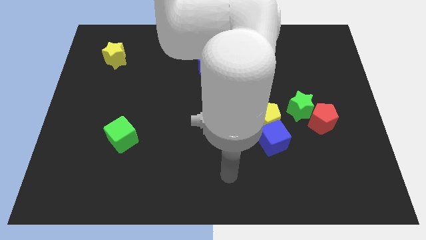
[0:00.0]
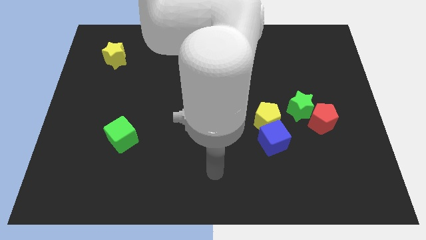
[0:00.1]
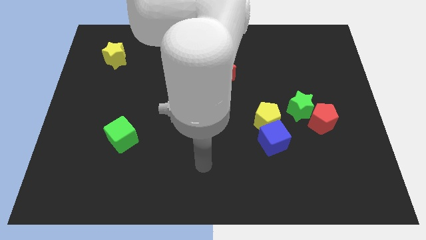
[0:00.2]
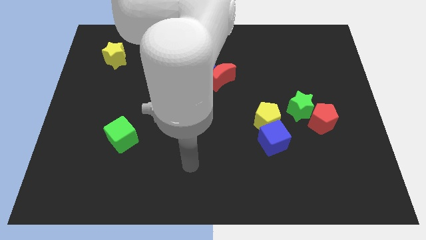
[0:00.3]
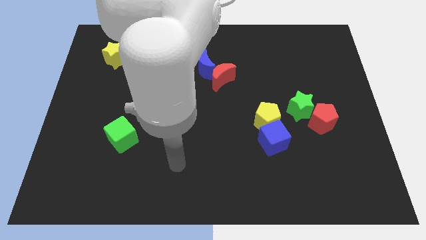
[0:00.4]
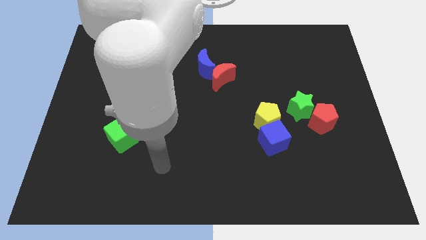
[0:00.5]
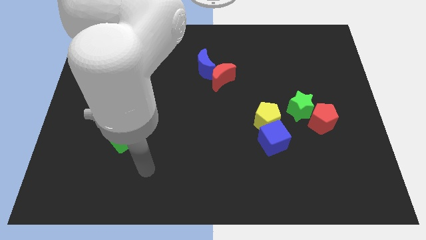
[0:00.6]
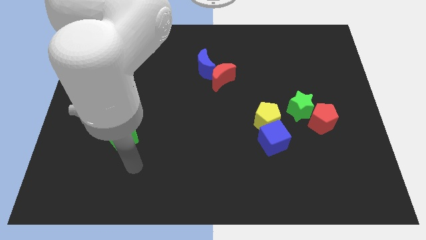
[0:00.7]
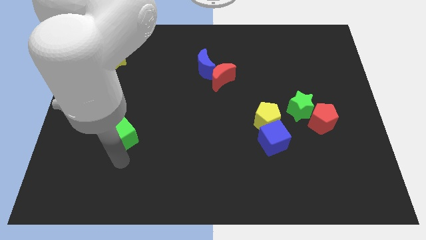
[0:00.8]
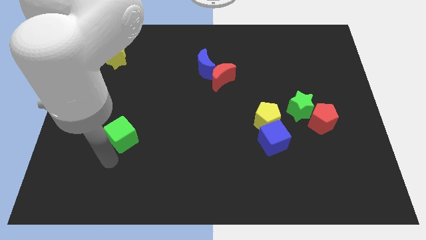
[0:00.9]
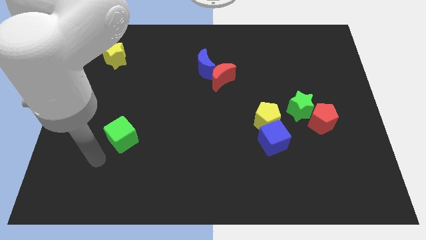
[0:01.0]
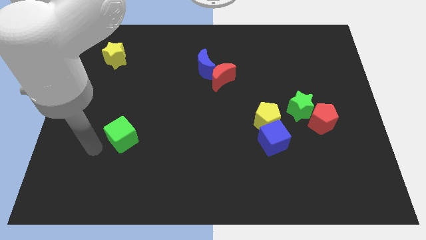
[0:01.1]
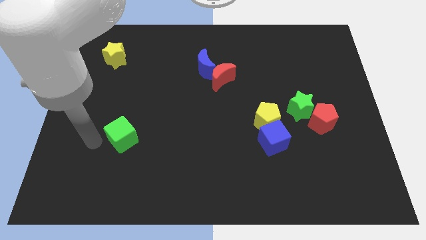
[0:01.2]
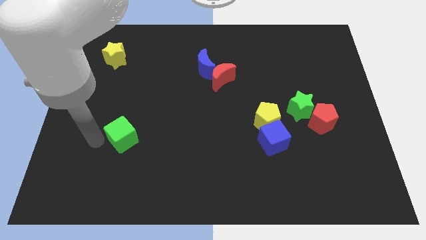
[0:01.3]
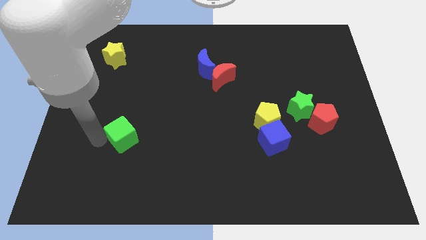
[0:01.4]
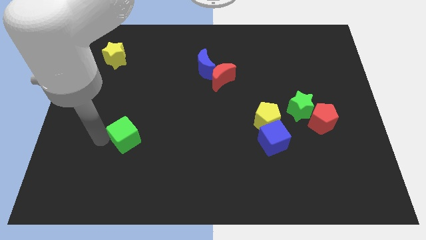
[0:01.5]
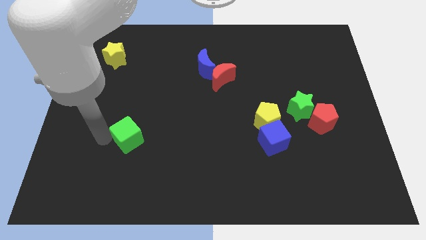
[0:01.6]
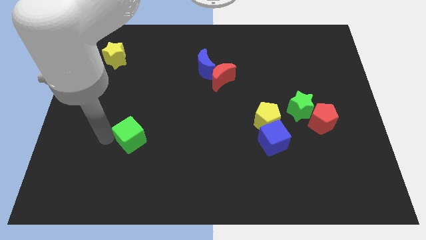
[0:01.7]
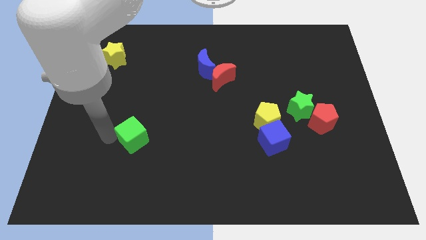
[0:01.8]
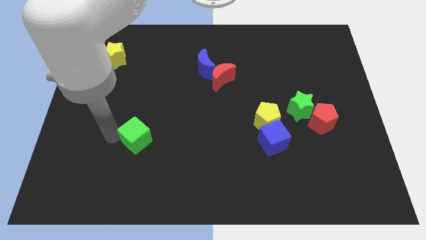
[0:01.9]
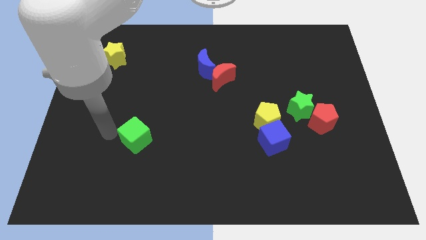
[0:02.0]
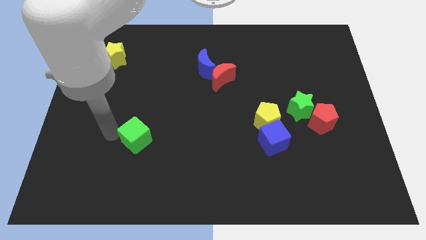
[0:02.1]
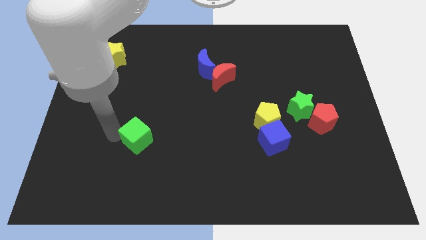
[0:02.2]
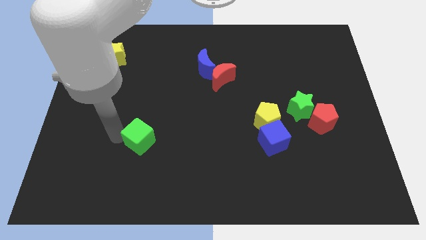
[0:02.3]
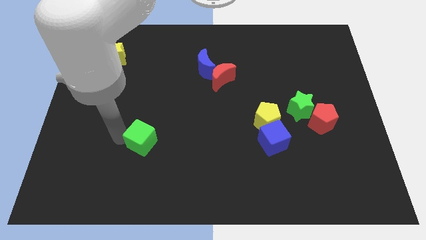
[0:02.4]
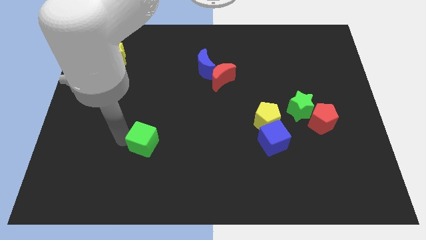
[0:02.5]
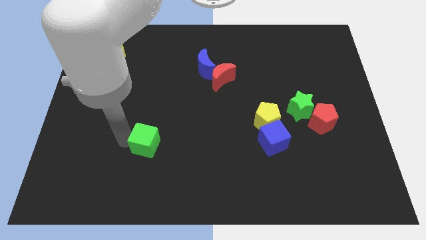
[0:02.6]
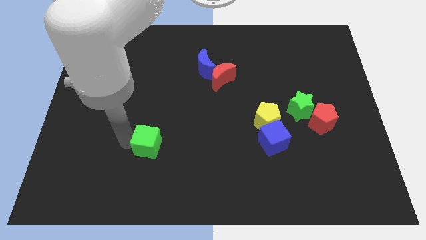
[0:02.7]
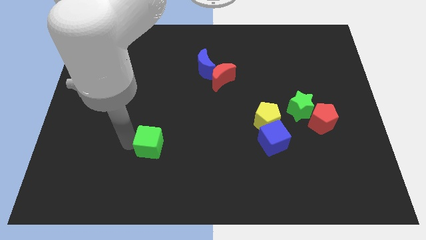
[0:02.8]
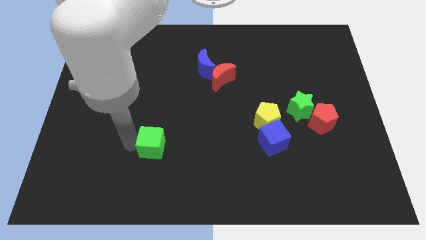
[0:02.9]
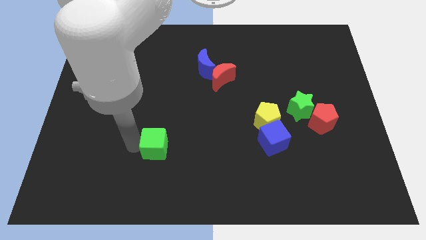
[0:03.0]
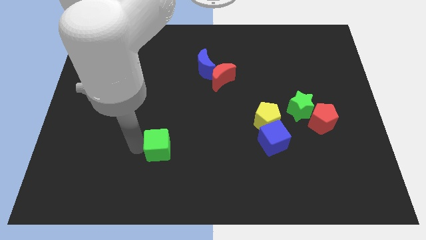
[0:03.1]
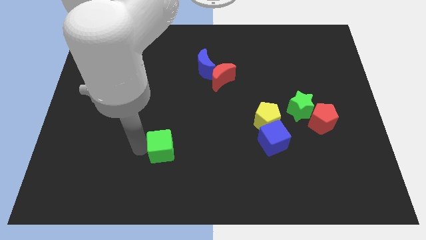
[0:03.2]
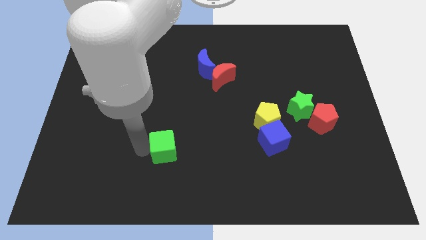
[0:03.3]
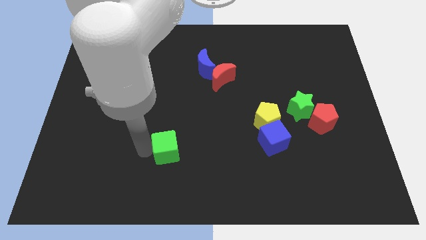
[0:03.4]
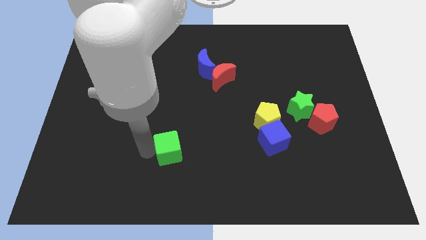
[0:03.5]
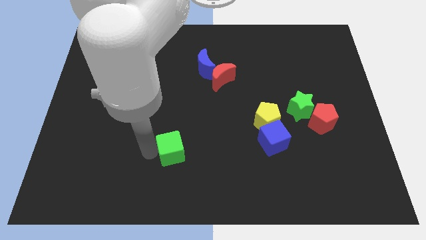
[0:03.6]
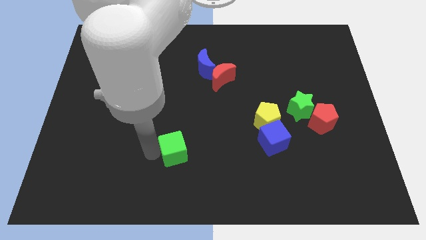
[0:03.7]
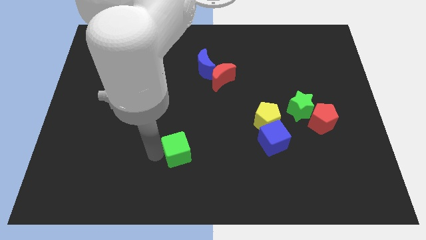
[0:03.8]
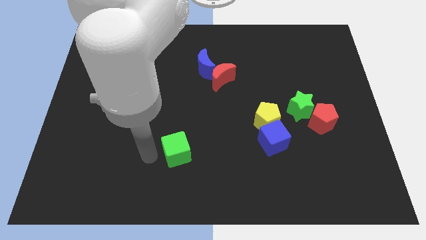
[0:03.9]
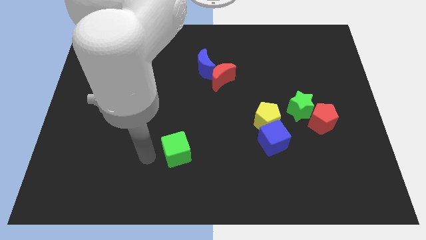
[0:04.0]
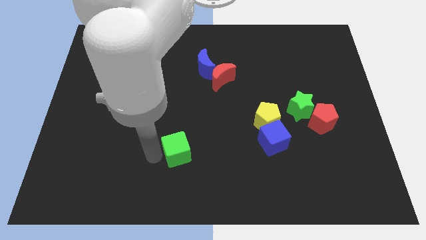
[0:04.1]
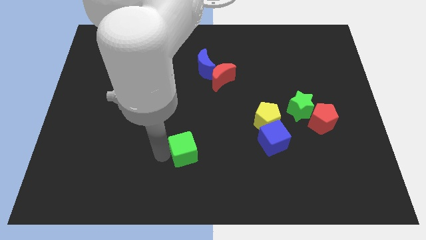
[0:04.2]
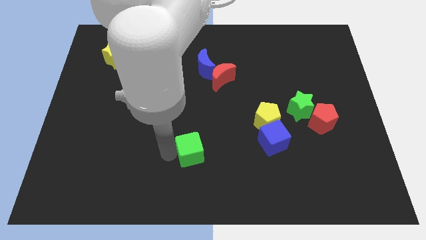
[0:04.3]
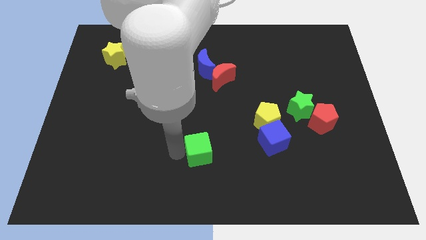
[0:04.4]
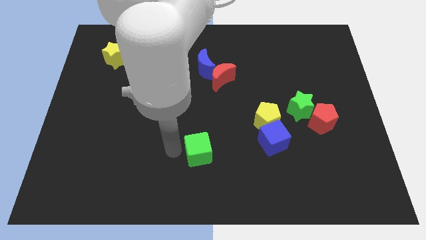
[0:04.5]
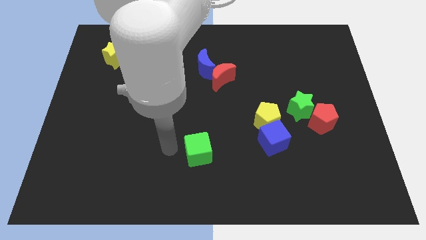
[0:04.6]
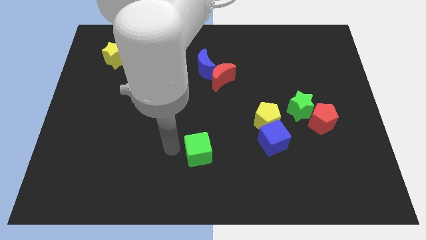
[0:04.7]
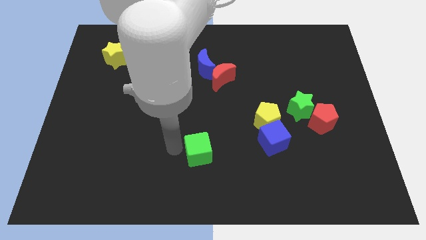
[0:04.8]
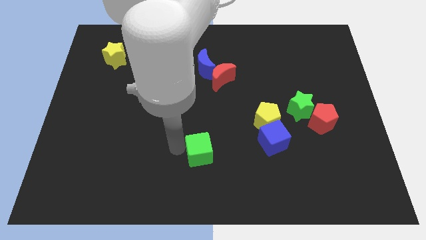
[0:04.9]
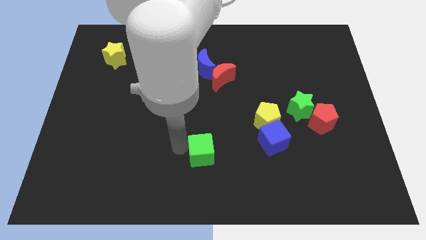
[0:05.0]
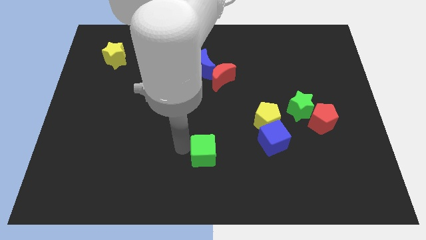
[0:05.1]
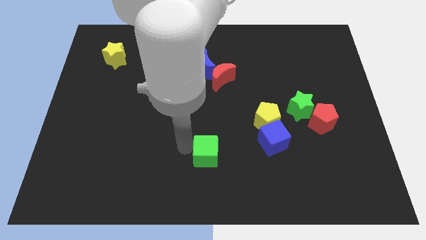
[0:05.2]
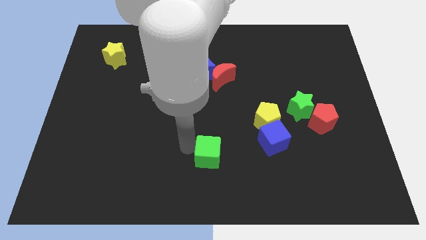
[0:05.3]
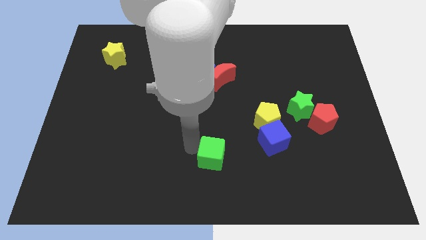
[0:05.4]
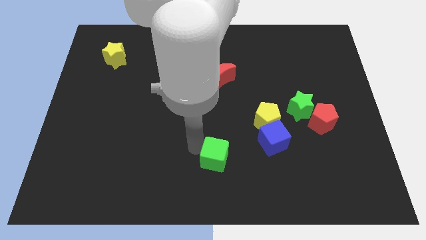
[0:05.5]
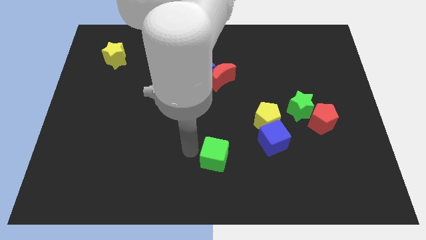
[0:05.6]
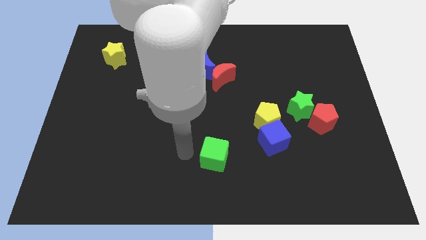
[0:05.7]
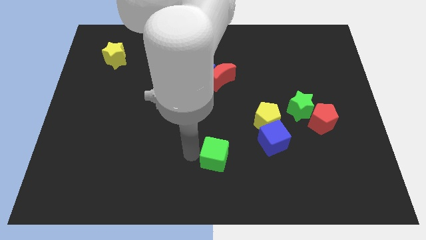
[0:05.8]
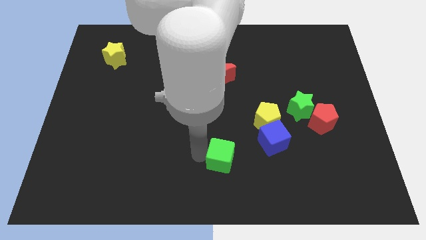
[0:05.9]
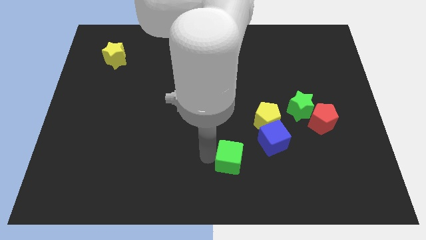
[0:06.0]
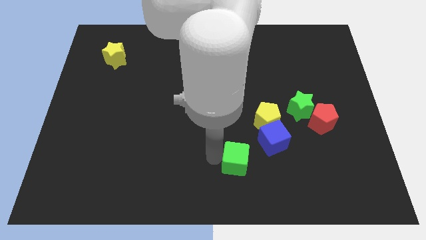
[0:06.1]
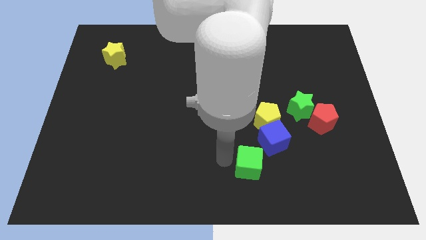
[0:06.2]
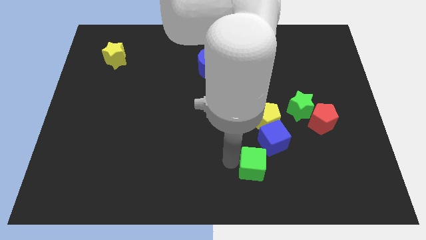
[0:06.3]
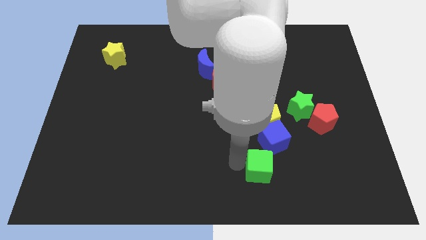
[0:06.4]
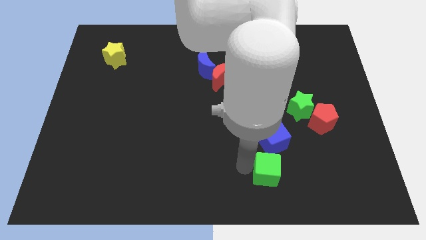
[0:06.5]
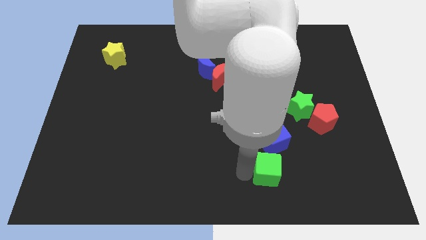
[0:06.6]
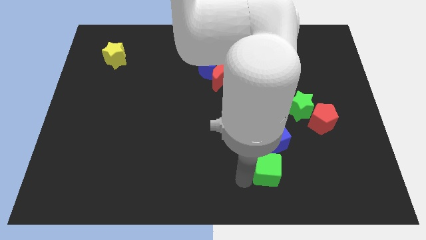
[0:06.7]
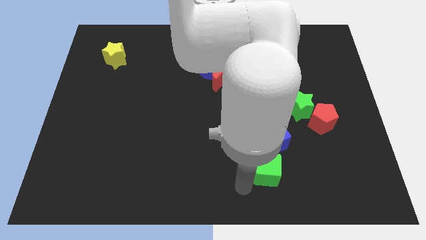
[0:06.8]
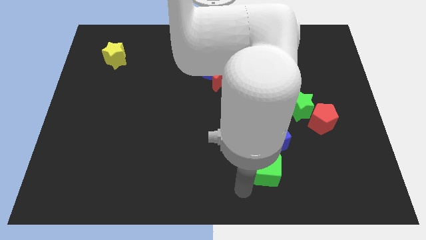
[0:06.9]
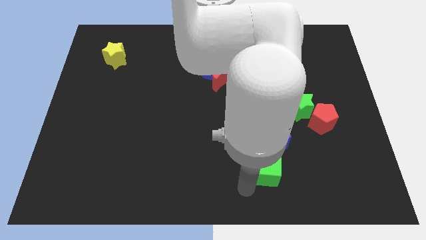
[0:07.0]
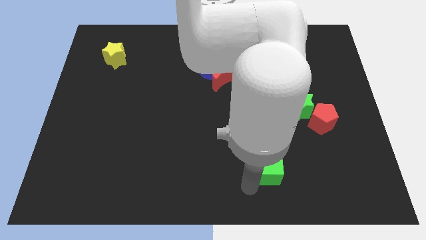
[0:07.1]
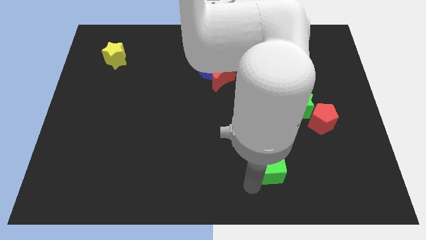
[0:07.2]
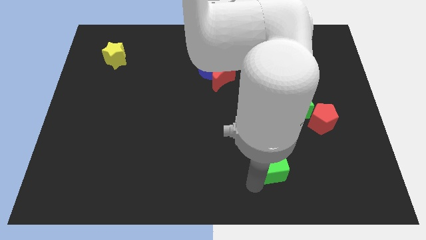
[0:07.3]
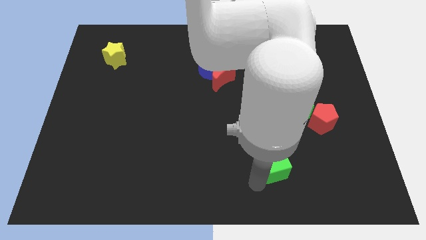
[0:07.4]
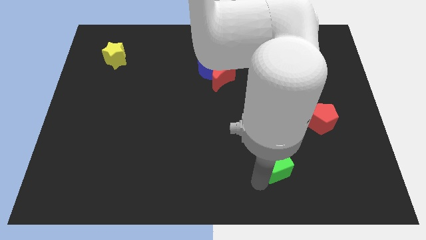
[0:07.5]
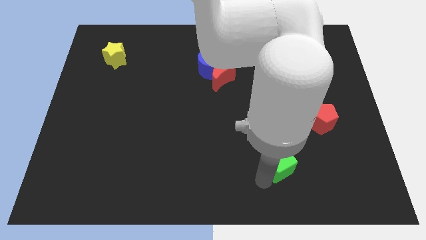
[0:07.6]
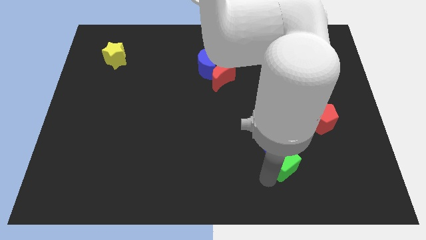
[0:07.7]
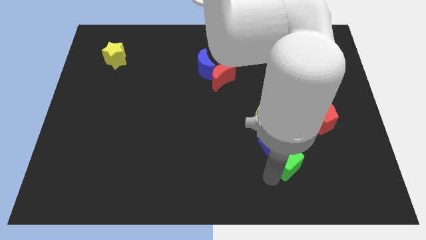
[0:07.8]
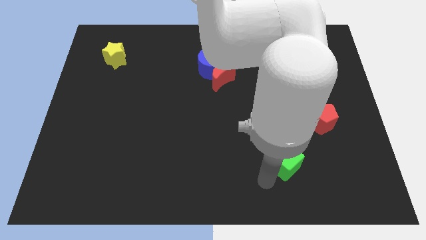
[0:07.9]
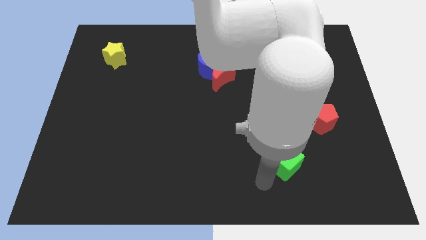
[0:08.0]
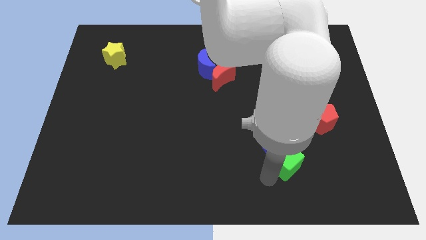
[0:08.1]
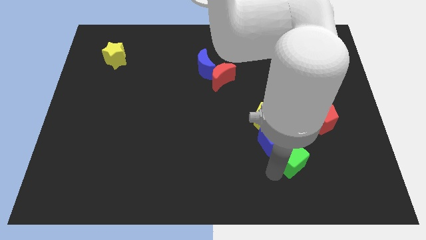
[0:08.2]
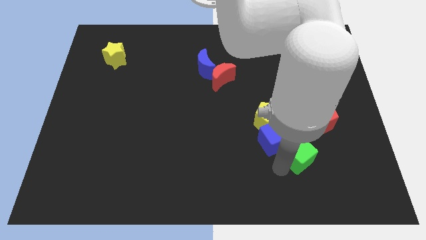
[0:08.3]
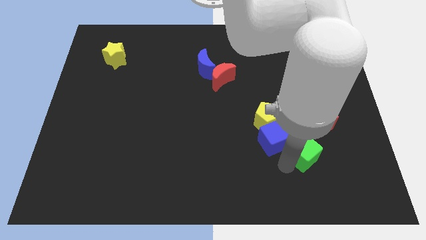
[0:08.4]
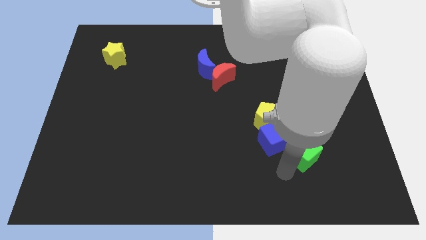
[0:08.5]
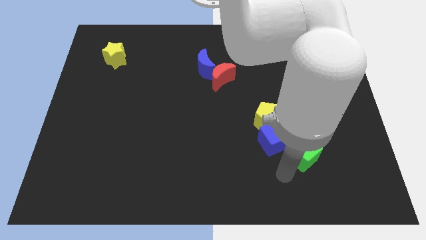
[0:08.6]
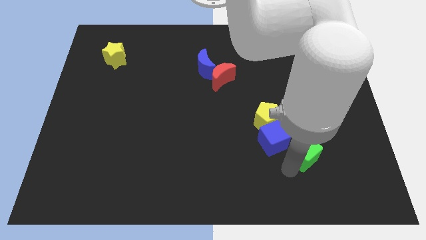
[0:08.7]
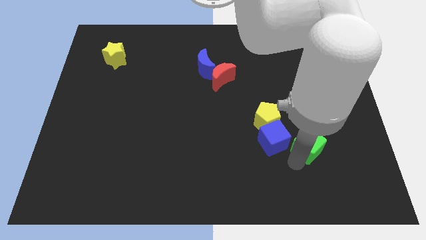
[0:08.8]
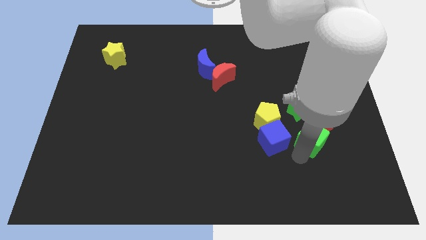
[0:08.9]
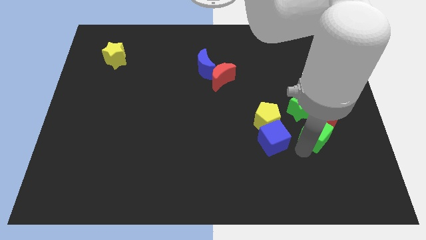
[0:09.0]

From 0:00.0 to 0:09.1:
slide the green cube to the bottom right of the green star
